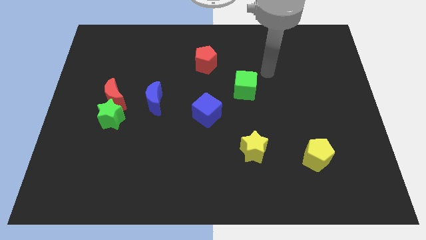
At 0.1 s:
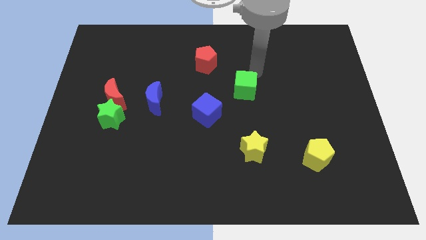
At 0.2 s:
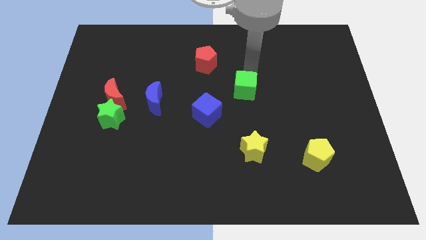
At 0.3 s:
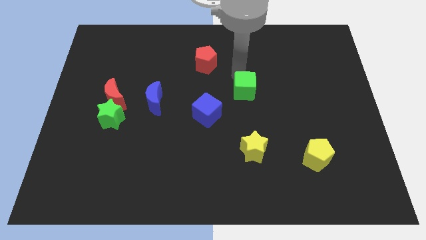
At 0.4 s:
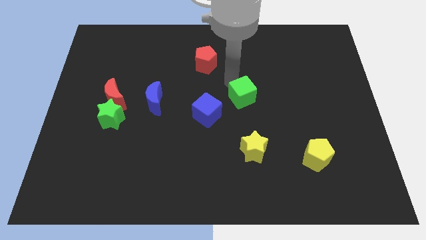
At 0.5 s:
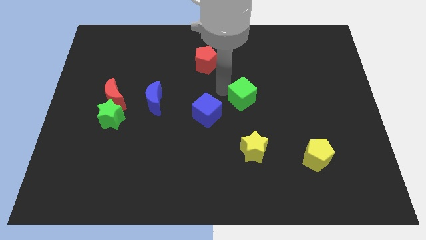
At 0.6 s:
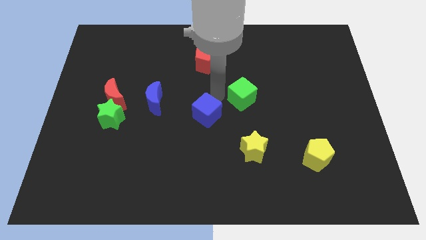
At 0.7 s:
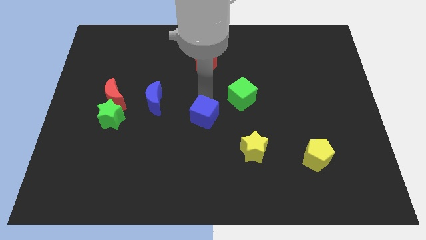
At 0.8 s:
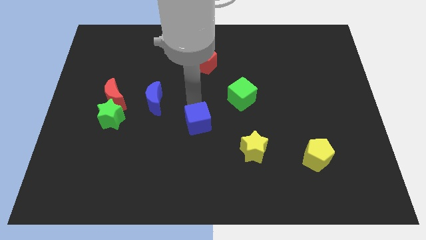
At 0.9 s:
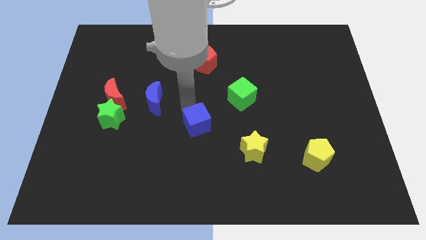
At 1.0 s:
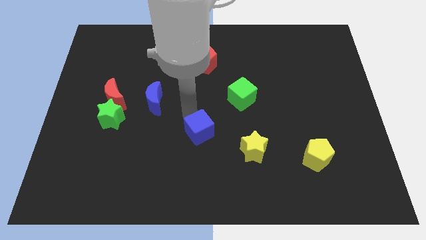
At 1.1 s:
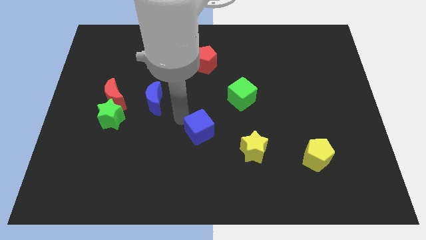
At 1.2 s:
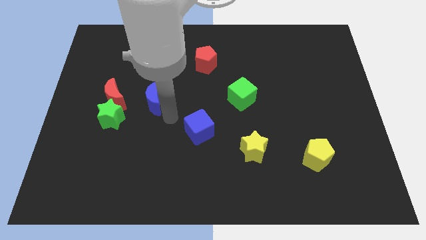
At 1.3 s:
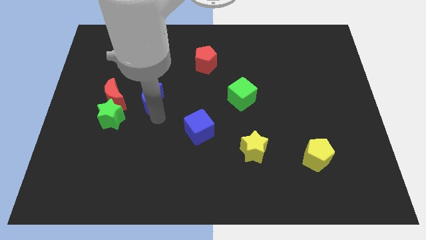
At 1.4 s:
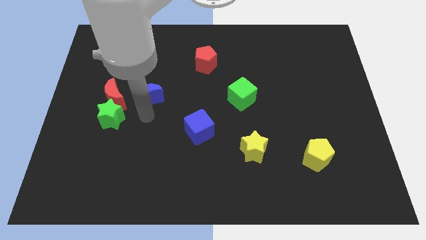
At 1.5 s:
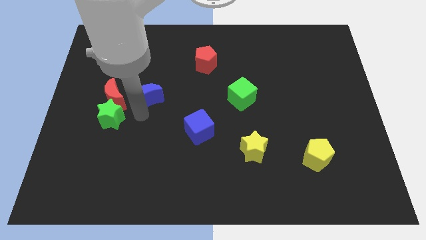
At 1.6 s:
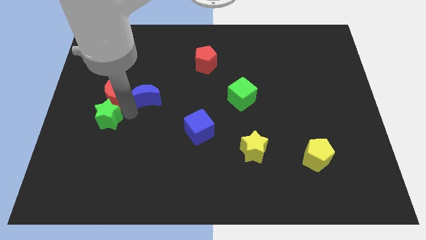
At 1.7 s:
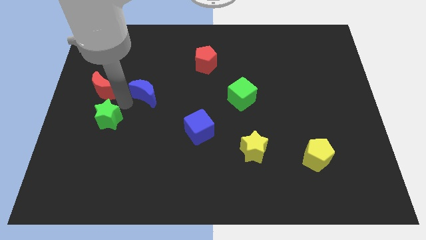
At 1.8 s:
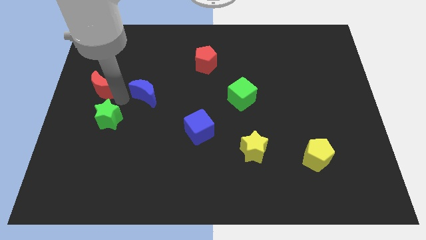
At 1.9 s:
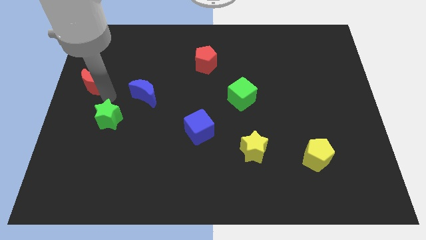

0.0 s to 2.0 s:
pull the green star apart from the red moon

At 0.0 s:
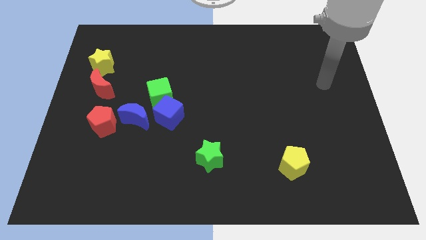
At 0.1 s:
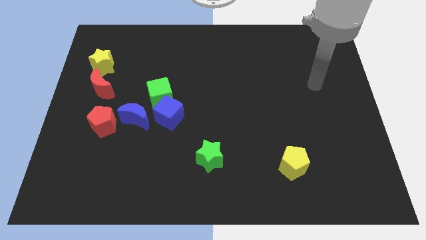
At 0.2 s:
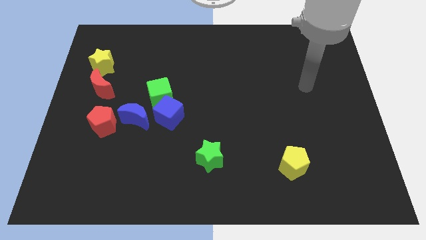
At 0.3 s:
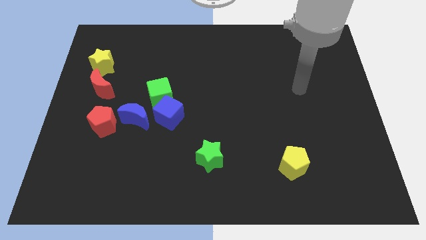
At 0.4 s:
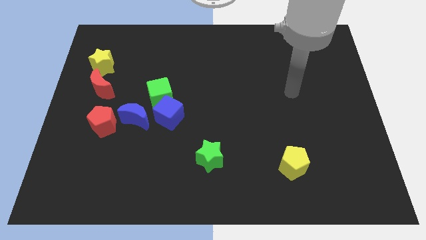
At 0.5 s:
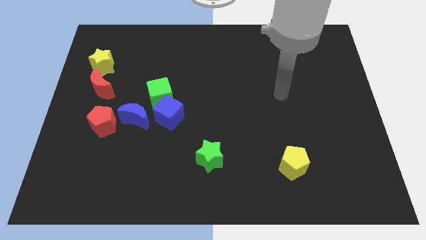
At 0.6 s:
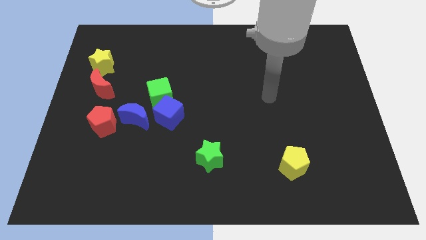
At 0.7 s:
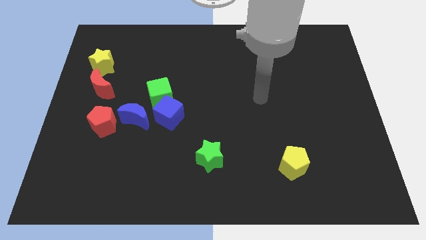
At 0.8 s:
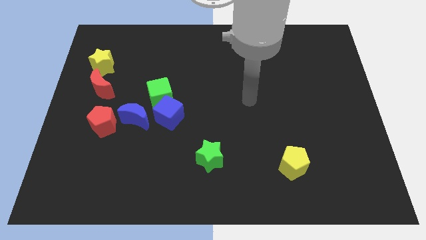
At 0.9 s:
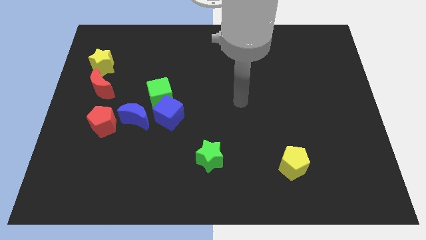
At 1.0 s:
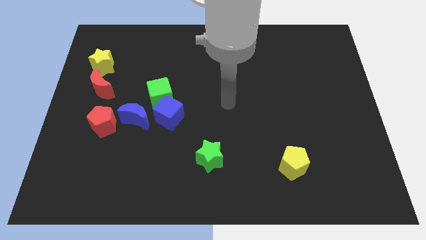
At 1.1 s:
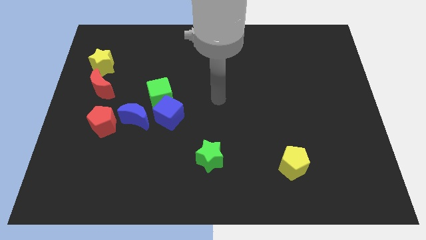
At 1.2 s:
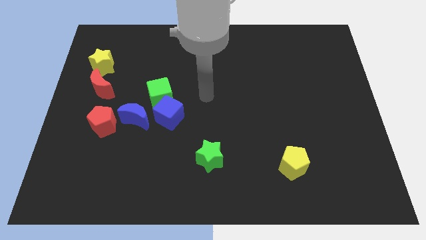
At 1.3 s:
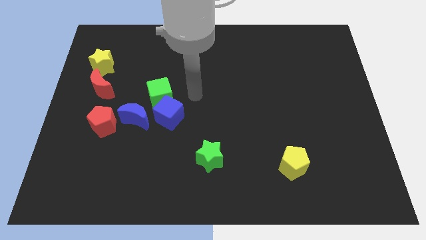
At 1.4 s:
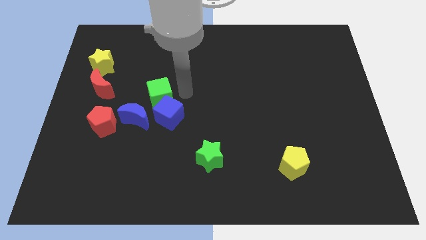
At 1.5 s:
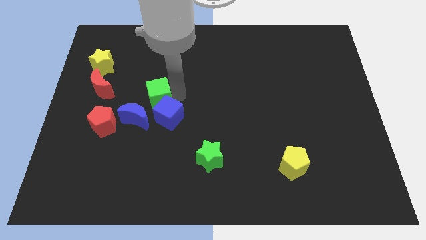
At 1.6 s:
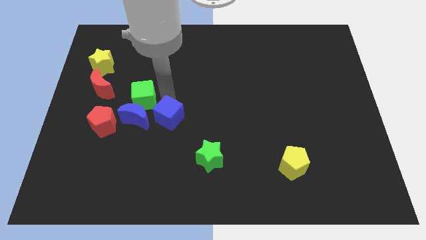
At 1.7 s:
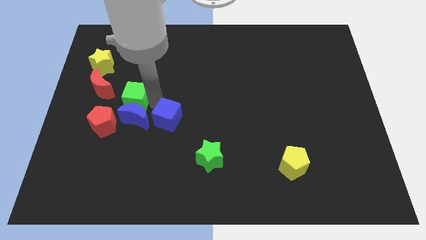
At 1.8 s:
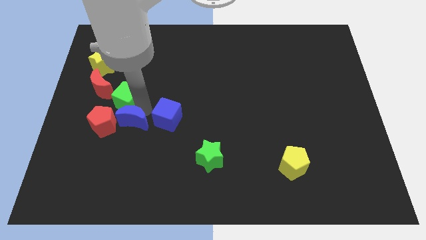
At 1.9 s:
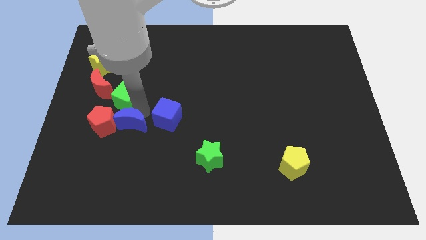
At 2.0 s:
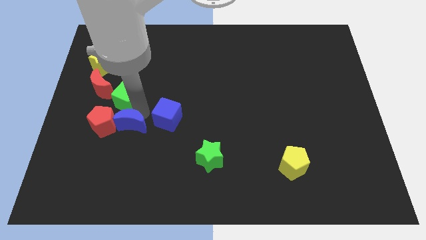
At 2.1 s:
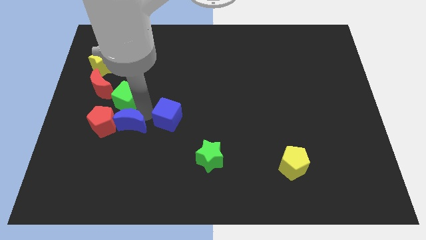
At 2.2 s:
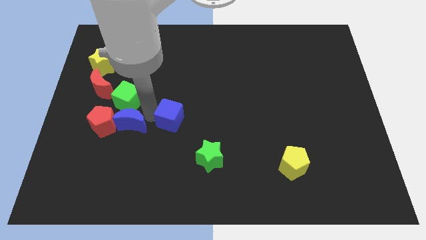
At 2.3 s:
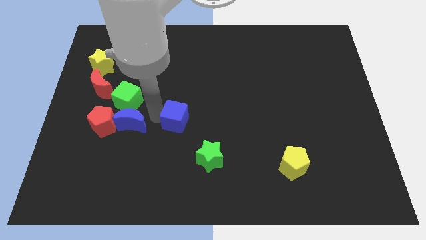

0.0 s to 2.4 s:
separate the blue cube from the green cube and blue moon

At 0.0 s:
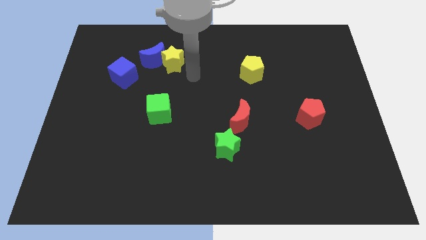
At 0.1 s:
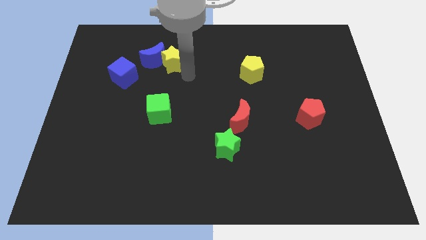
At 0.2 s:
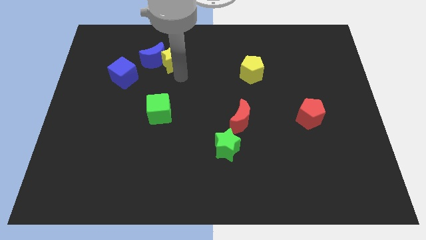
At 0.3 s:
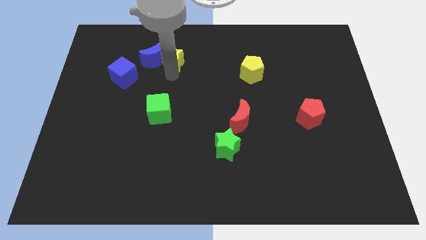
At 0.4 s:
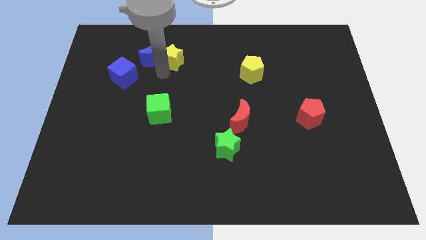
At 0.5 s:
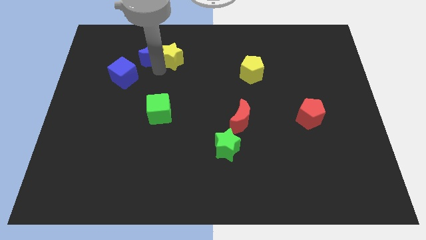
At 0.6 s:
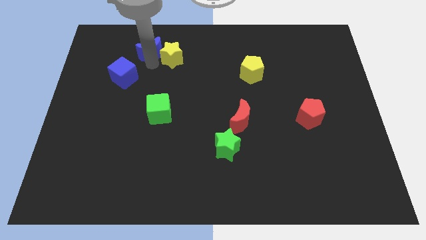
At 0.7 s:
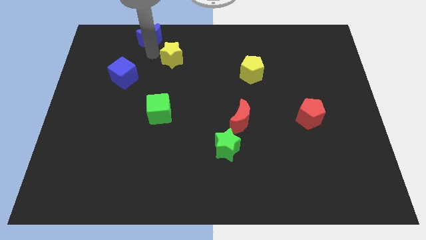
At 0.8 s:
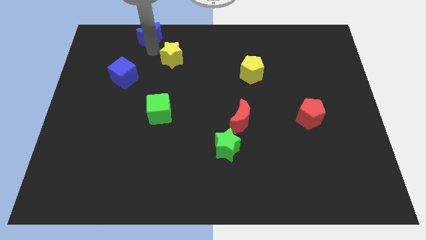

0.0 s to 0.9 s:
pull the yellow star apart from the blue moon

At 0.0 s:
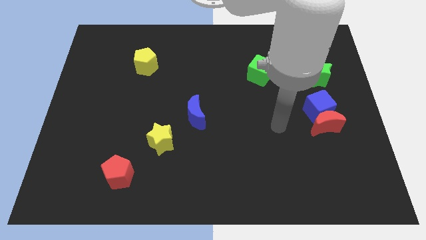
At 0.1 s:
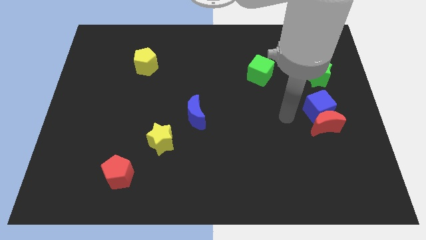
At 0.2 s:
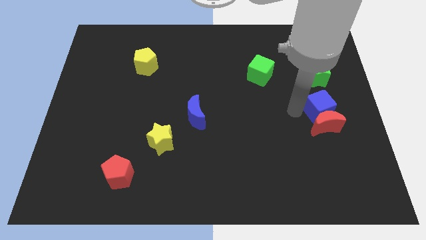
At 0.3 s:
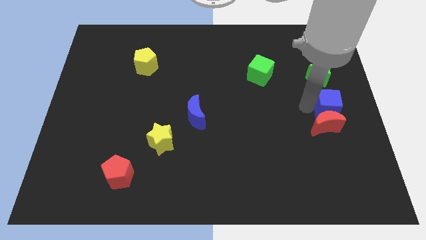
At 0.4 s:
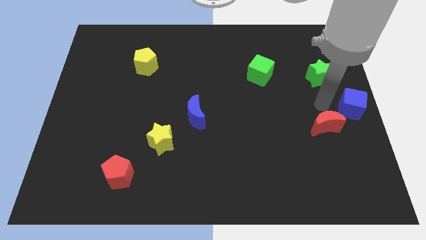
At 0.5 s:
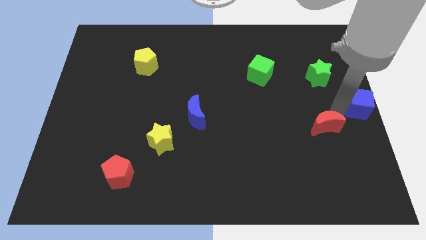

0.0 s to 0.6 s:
separate the red moon from the blue cube

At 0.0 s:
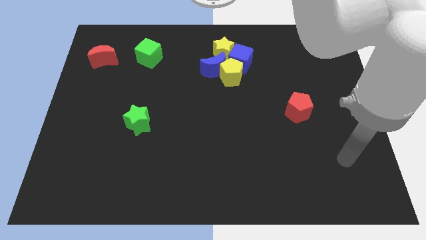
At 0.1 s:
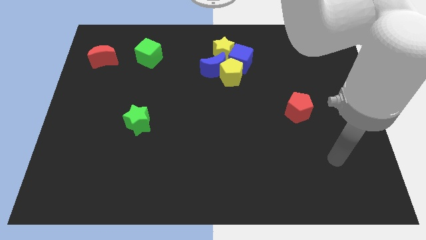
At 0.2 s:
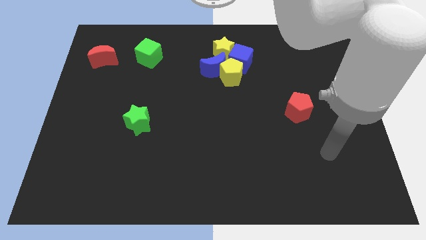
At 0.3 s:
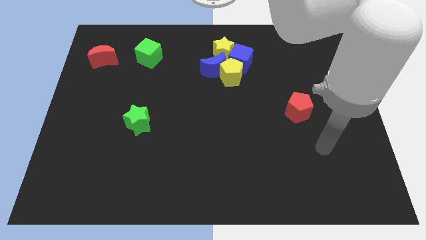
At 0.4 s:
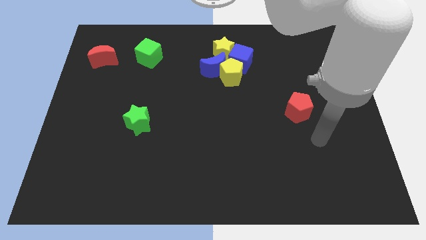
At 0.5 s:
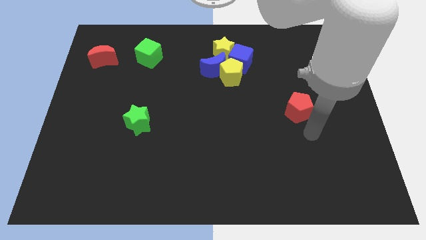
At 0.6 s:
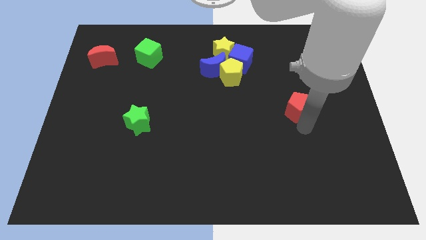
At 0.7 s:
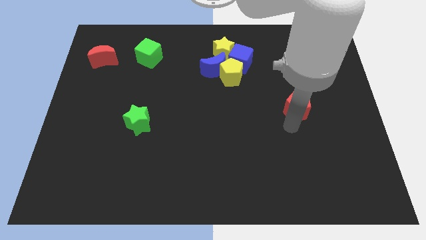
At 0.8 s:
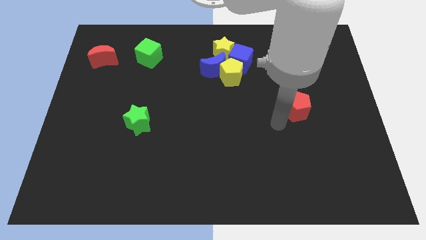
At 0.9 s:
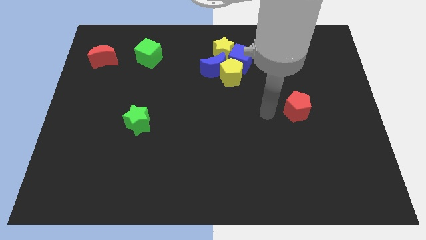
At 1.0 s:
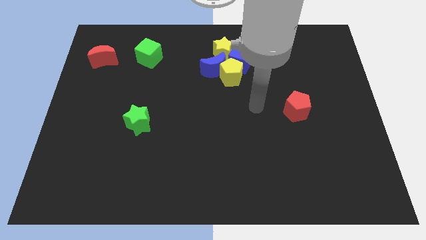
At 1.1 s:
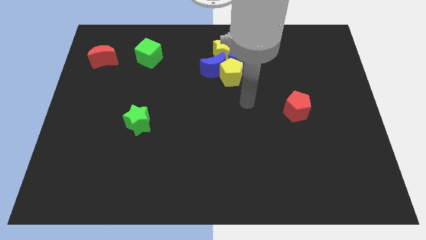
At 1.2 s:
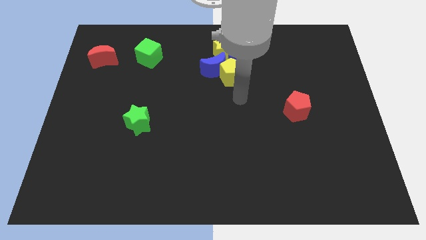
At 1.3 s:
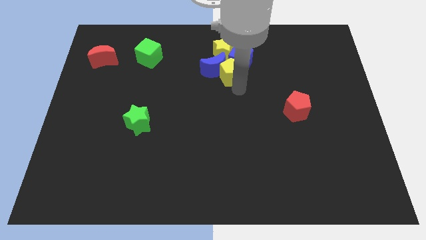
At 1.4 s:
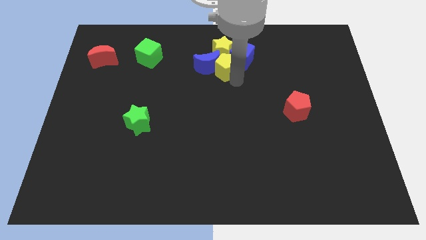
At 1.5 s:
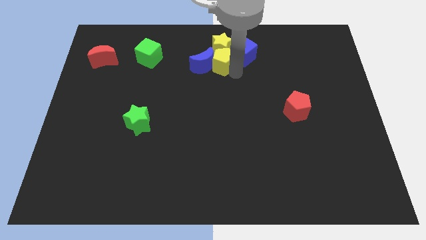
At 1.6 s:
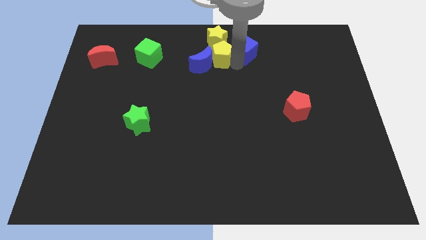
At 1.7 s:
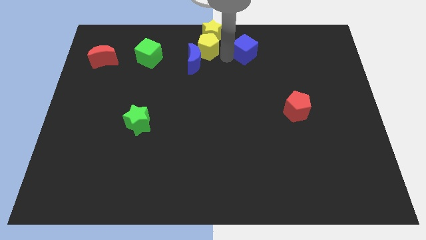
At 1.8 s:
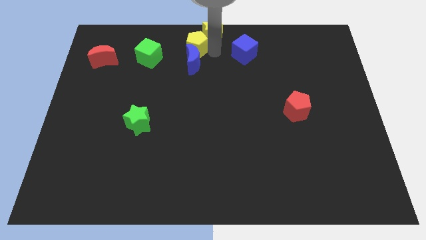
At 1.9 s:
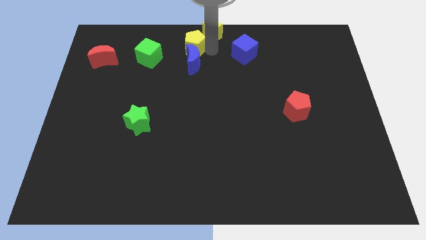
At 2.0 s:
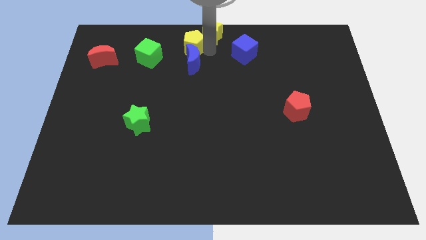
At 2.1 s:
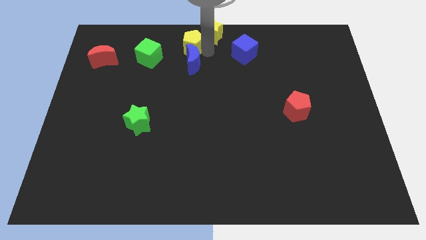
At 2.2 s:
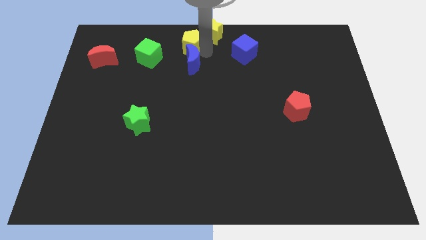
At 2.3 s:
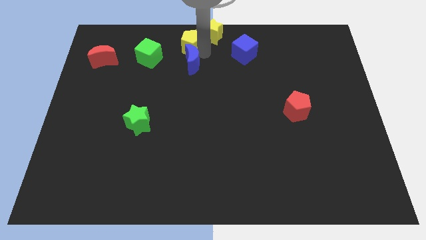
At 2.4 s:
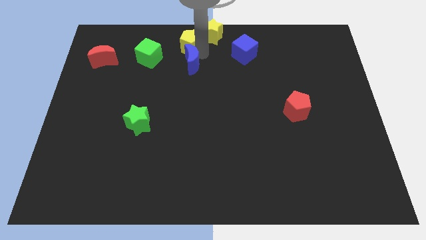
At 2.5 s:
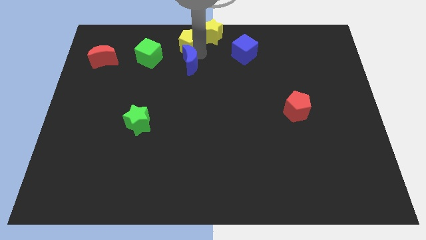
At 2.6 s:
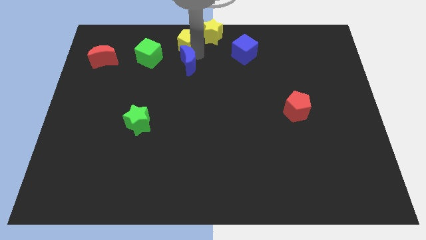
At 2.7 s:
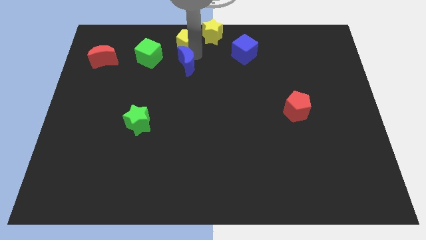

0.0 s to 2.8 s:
pull the blue moon apart from the group

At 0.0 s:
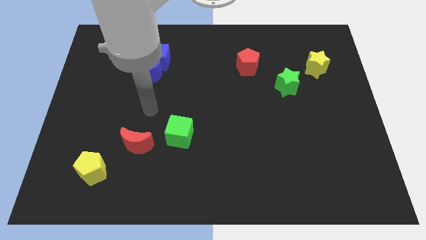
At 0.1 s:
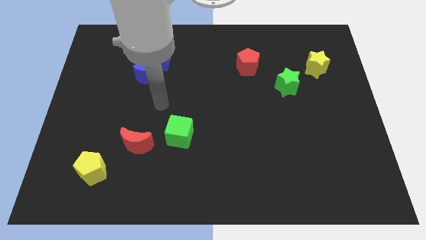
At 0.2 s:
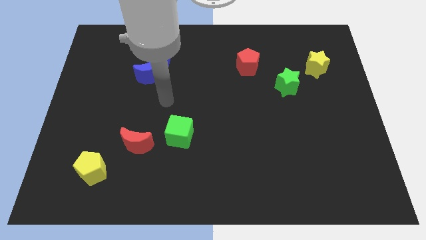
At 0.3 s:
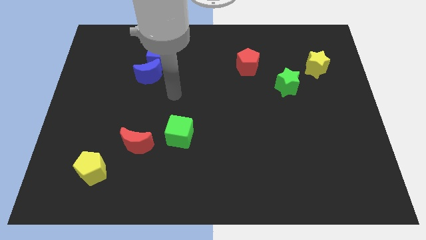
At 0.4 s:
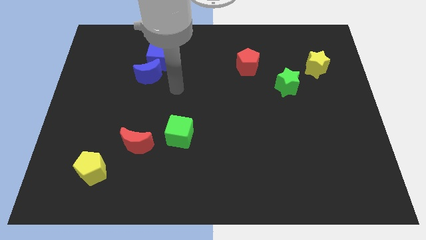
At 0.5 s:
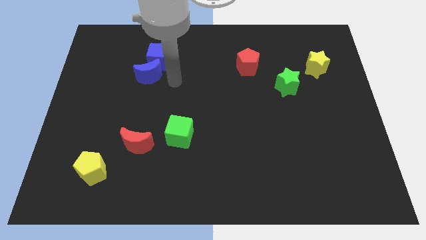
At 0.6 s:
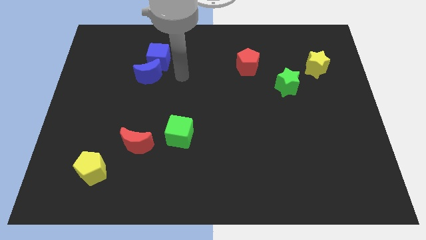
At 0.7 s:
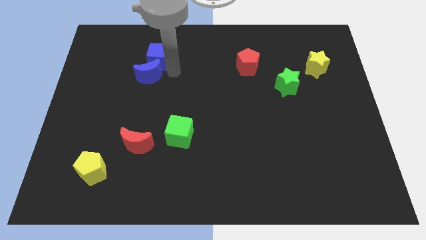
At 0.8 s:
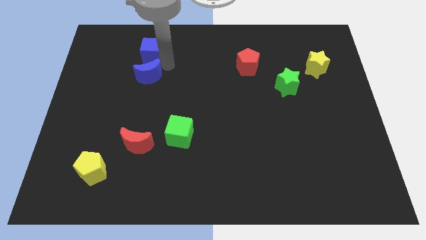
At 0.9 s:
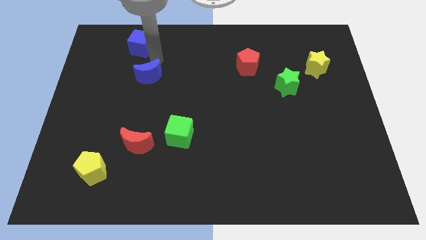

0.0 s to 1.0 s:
pull the blue moon apart from the blue cube
